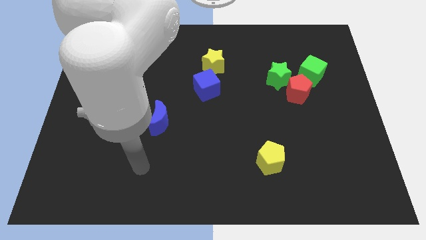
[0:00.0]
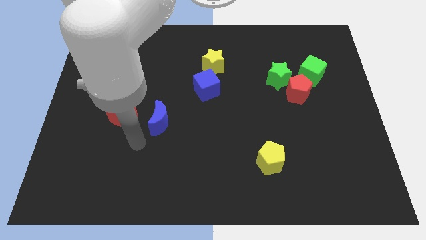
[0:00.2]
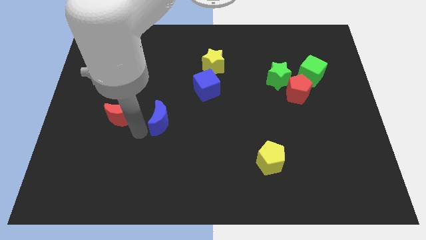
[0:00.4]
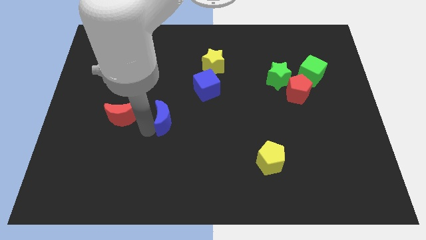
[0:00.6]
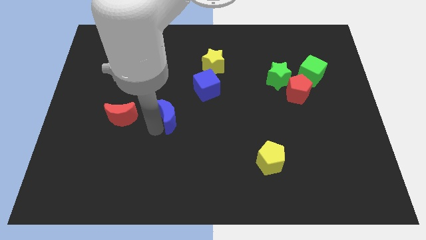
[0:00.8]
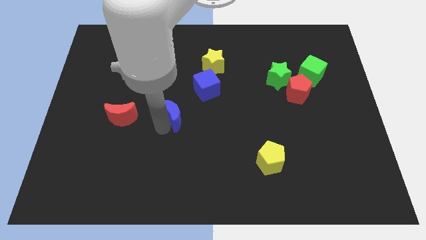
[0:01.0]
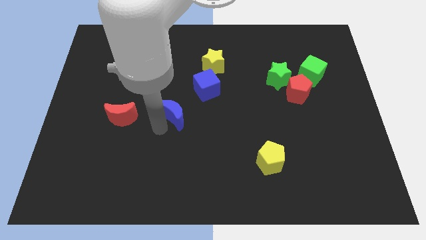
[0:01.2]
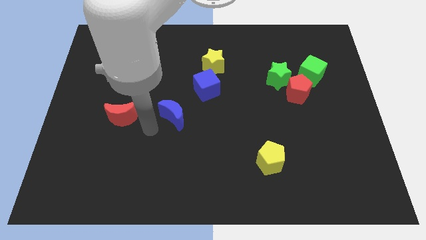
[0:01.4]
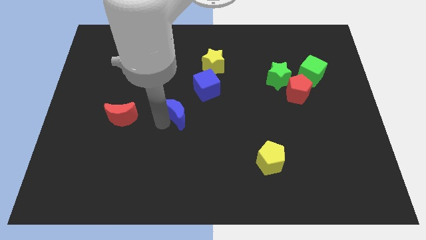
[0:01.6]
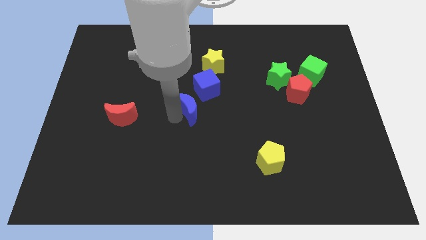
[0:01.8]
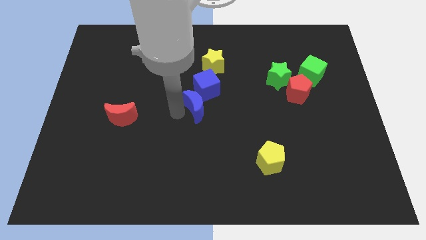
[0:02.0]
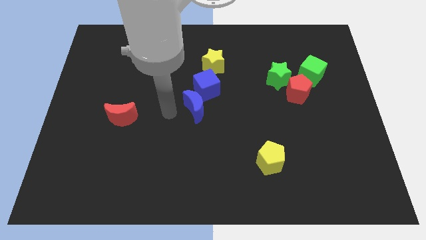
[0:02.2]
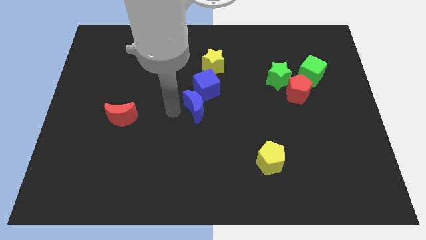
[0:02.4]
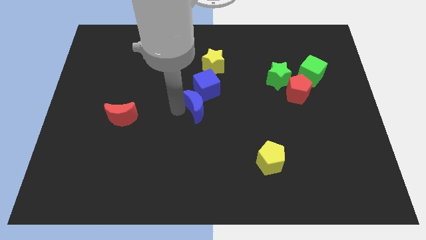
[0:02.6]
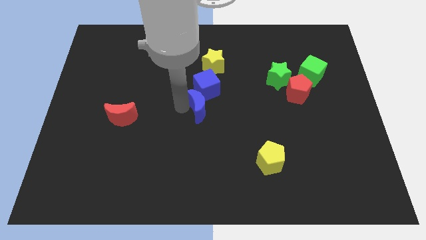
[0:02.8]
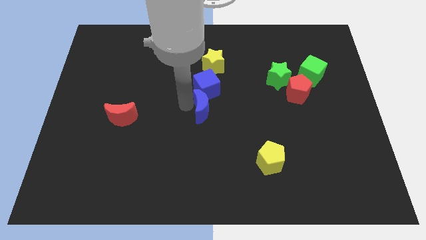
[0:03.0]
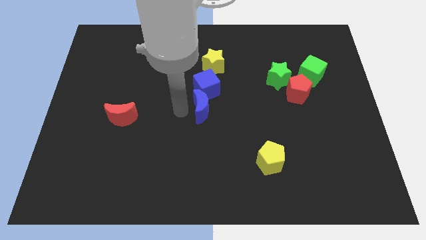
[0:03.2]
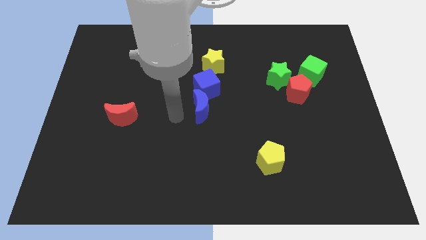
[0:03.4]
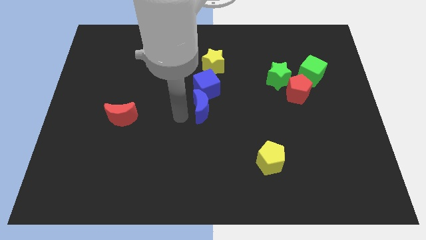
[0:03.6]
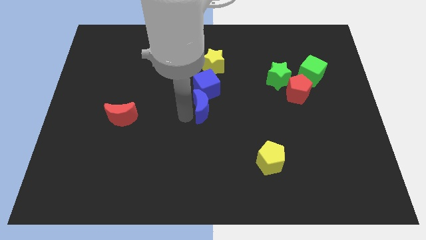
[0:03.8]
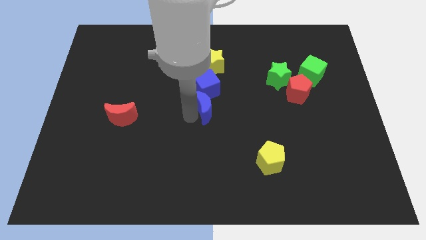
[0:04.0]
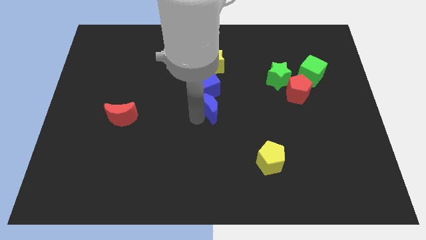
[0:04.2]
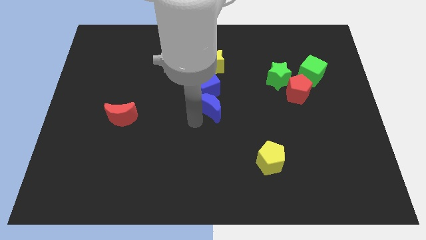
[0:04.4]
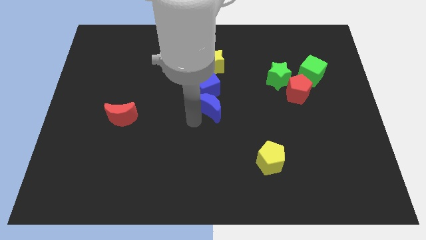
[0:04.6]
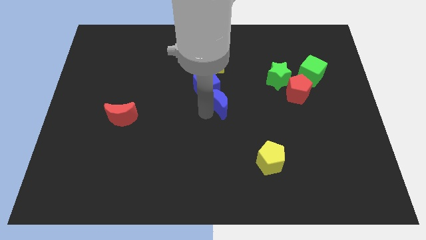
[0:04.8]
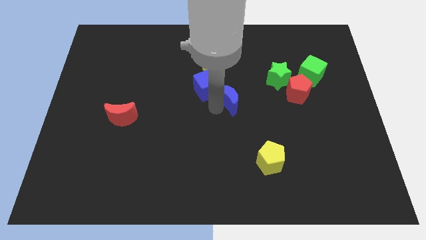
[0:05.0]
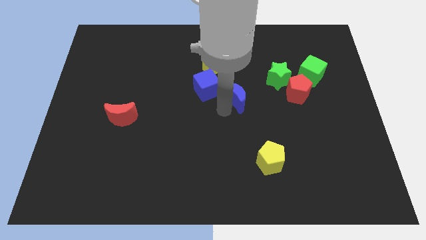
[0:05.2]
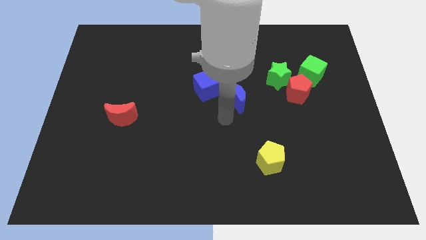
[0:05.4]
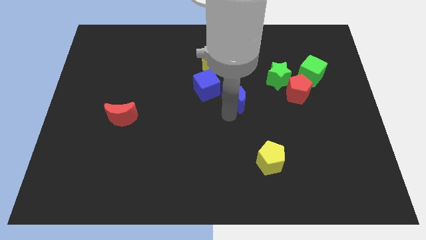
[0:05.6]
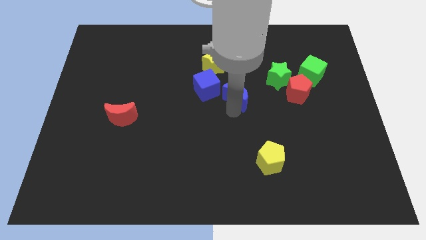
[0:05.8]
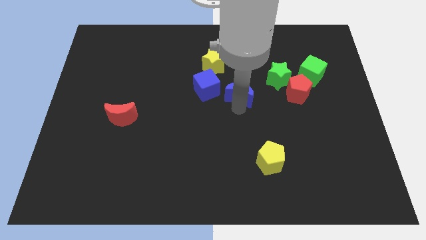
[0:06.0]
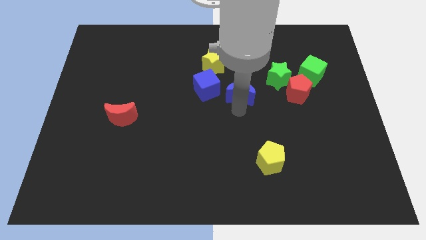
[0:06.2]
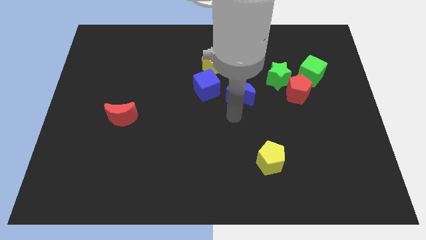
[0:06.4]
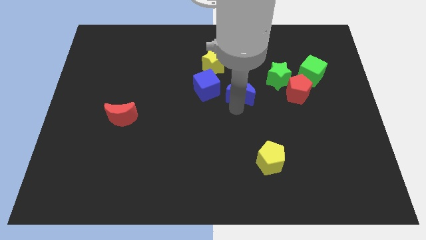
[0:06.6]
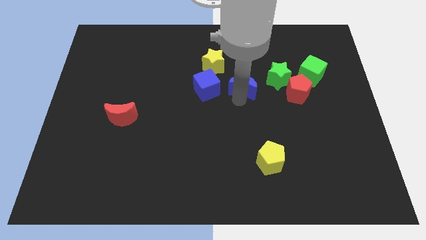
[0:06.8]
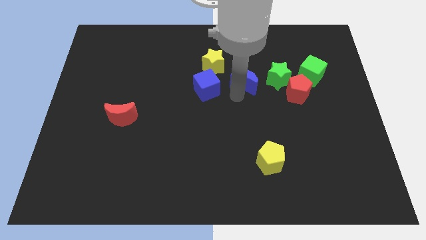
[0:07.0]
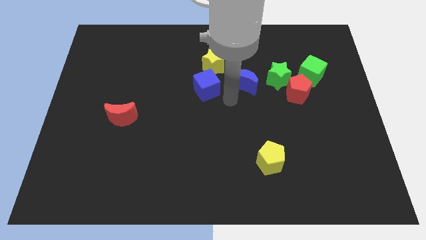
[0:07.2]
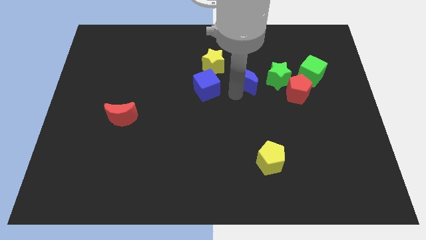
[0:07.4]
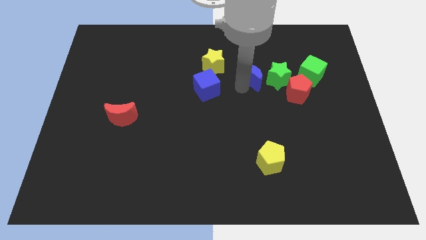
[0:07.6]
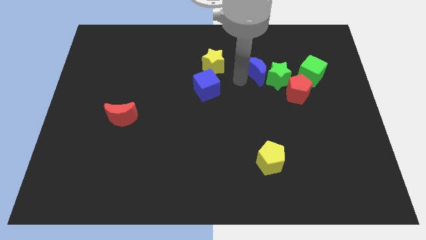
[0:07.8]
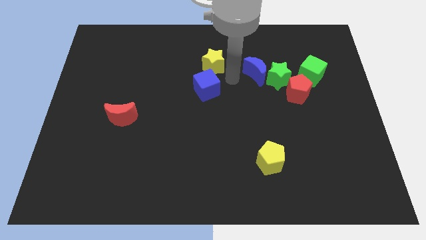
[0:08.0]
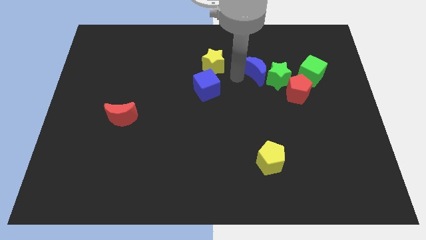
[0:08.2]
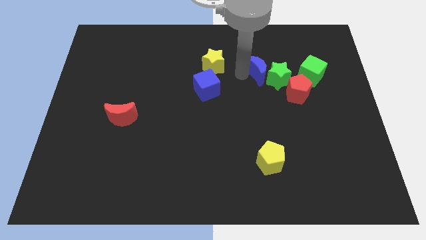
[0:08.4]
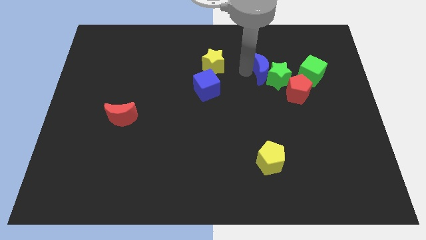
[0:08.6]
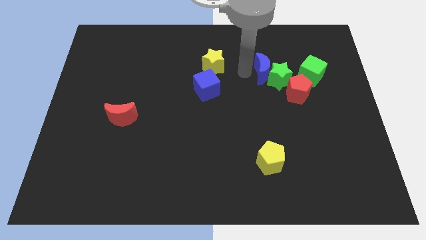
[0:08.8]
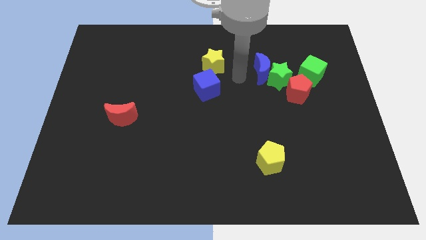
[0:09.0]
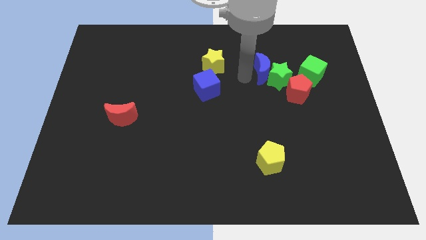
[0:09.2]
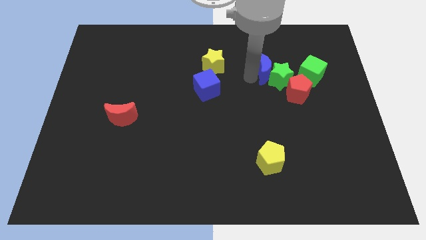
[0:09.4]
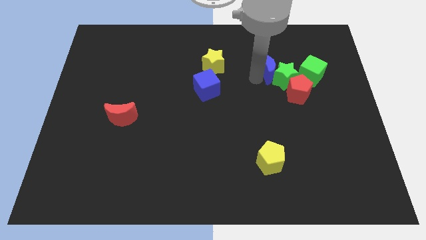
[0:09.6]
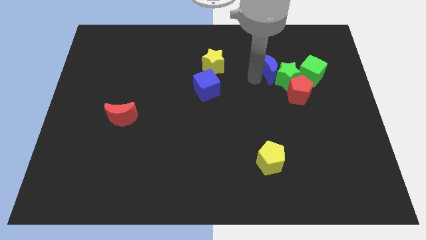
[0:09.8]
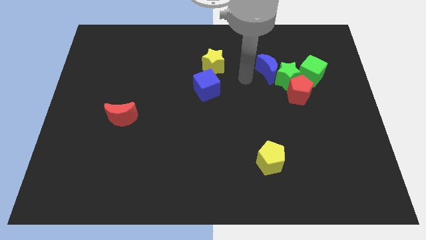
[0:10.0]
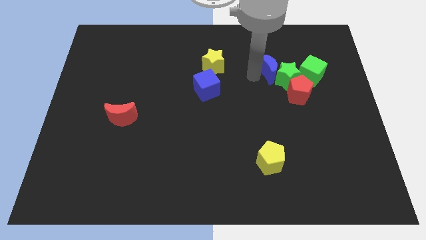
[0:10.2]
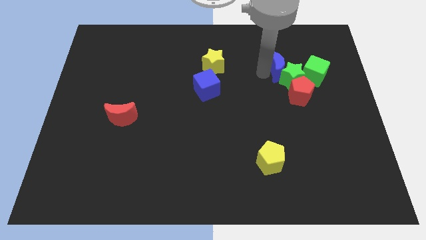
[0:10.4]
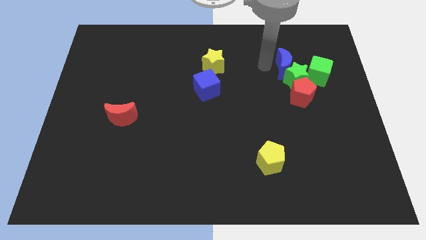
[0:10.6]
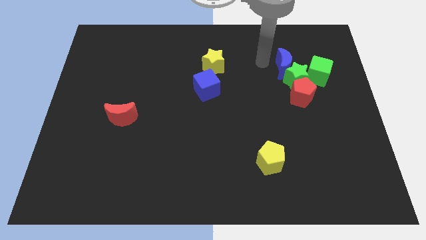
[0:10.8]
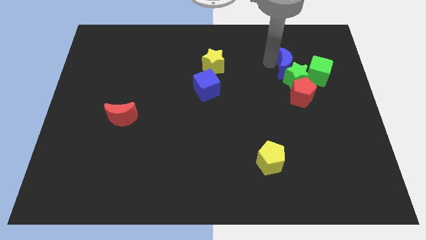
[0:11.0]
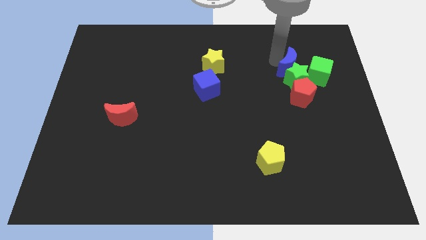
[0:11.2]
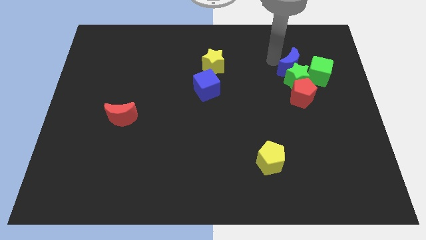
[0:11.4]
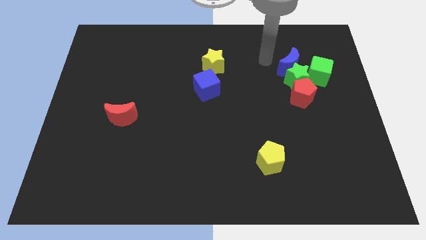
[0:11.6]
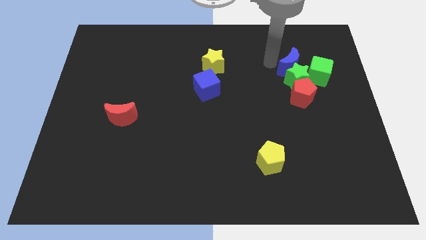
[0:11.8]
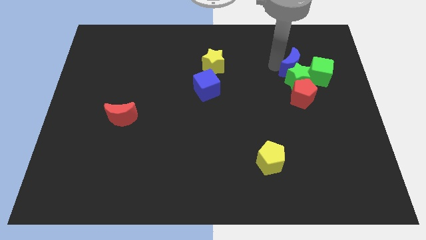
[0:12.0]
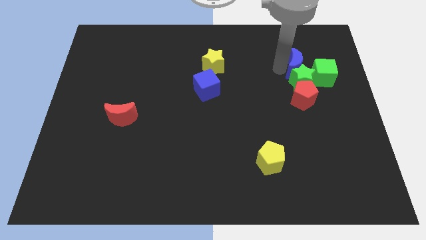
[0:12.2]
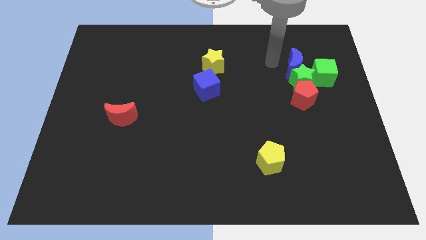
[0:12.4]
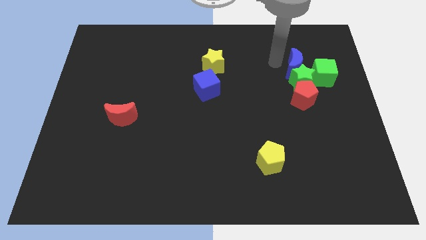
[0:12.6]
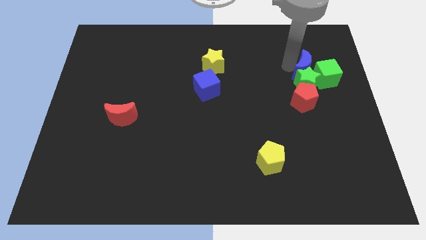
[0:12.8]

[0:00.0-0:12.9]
put the blue moon towards the green cube
